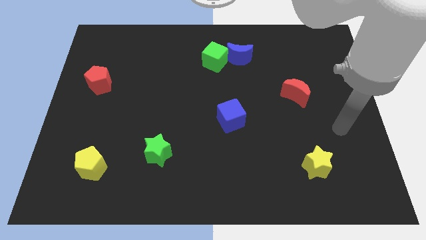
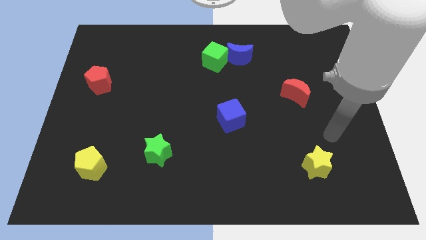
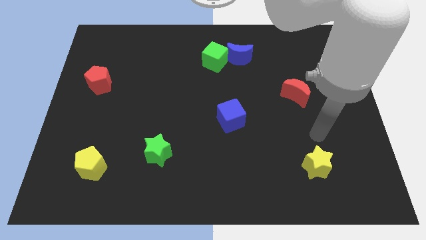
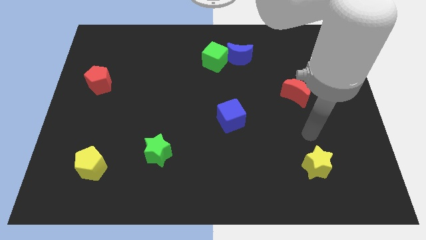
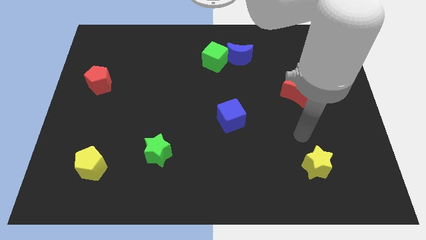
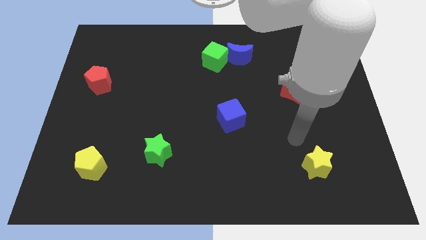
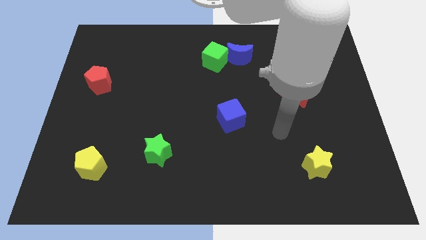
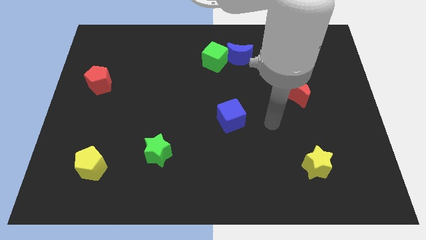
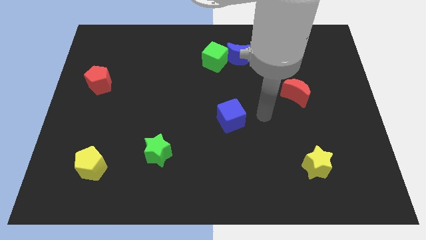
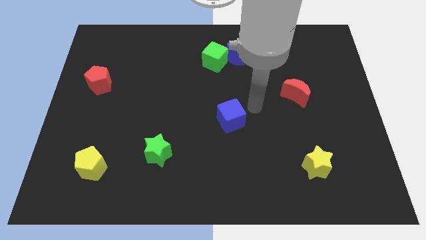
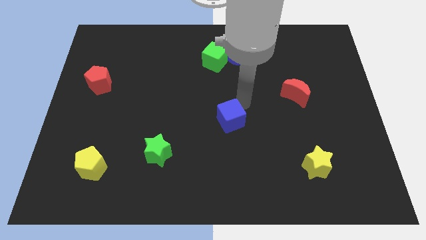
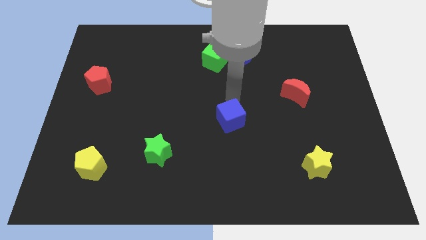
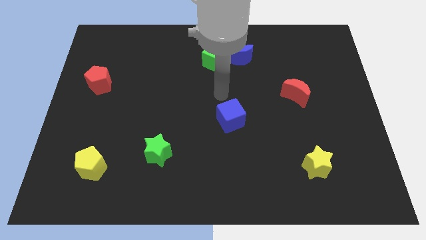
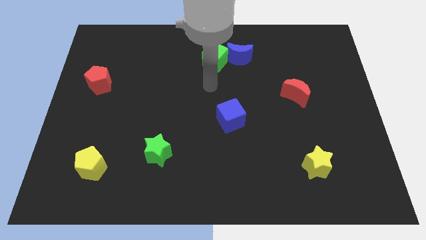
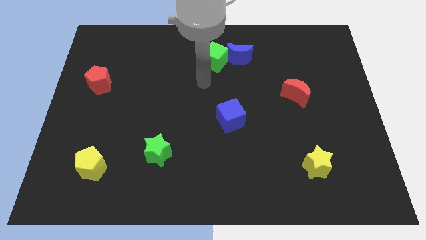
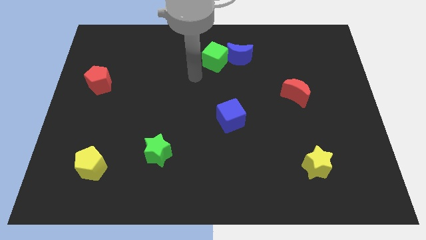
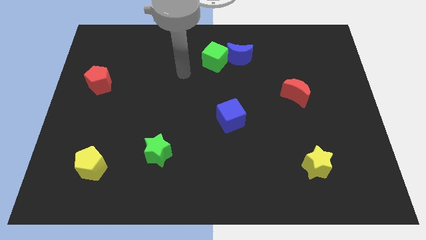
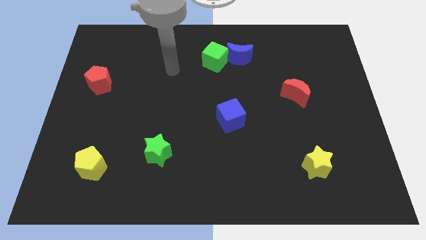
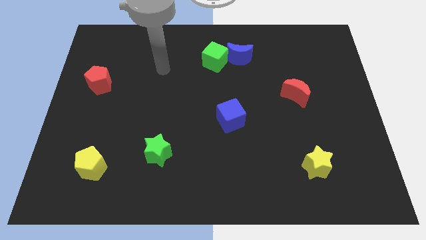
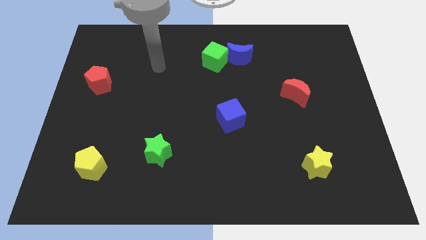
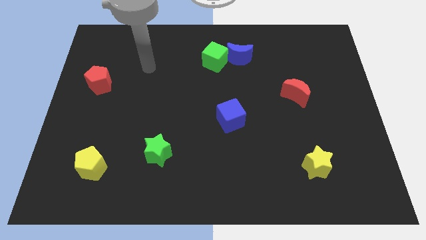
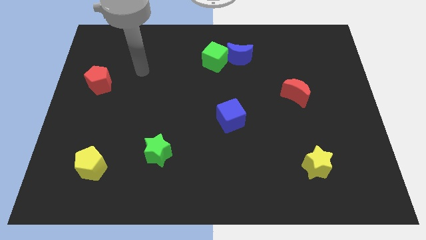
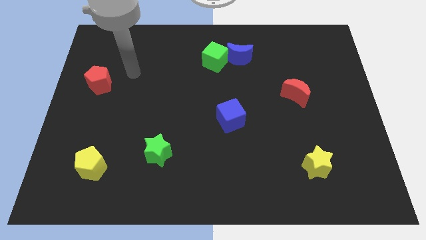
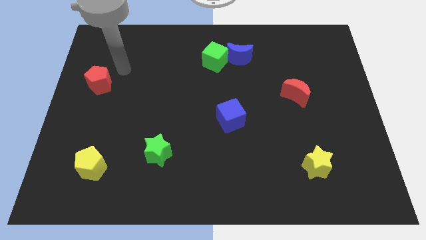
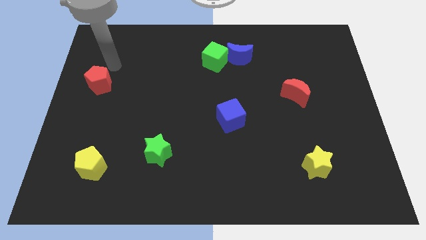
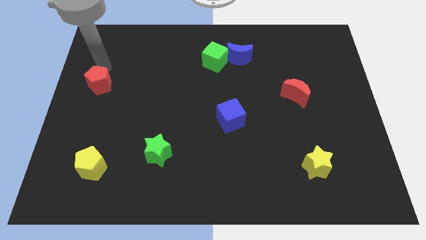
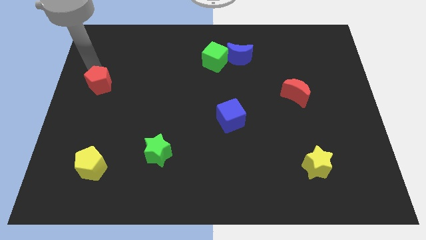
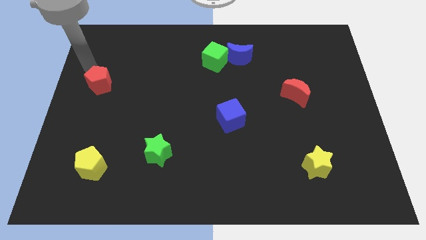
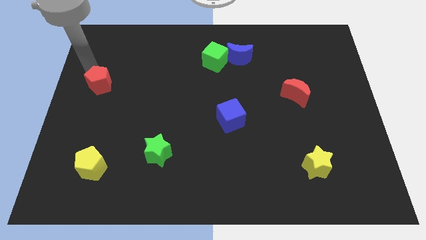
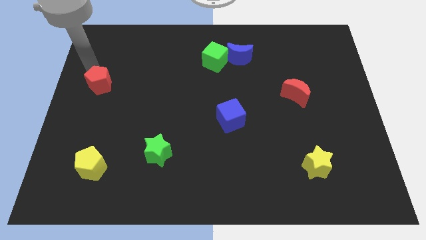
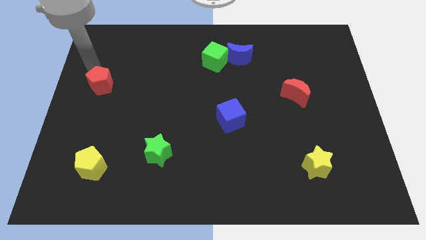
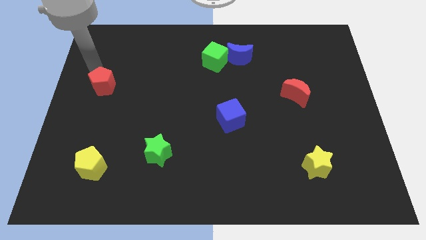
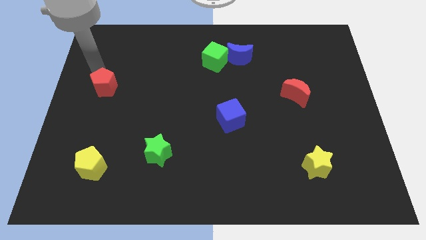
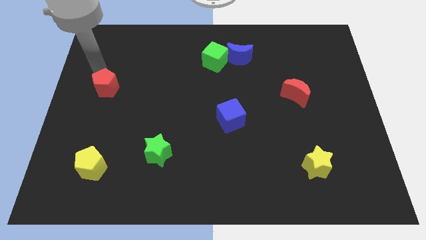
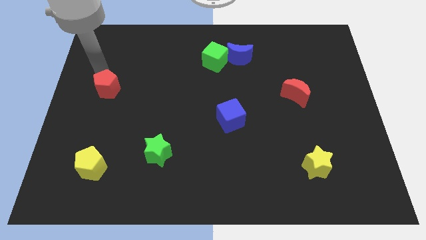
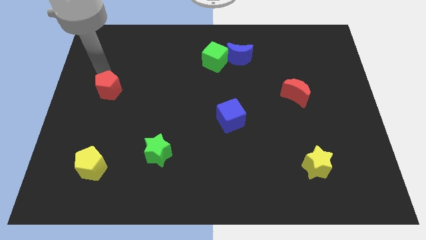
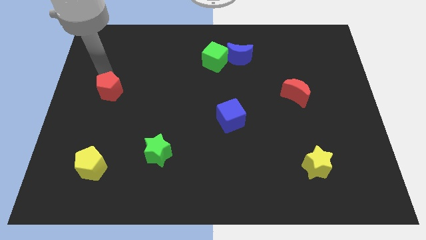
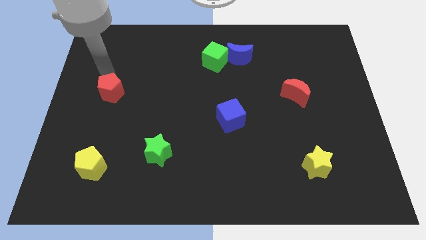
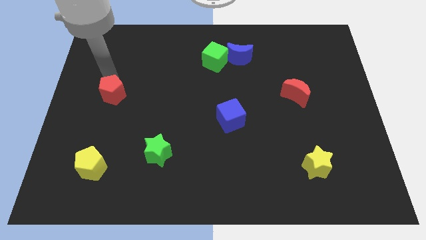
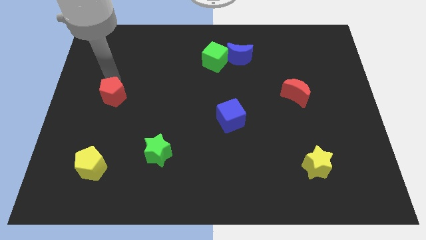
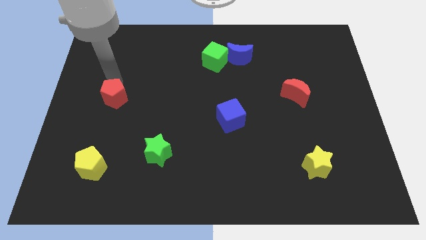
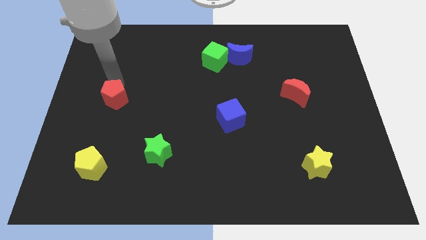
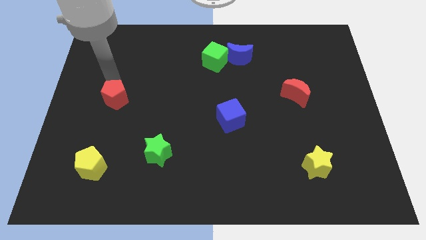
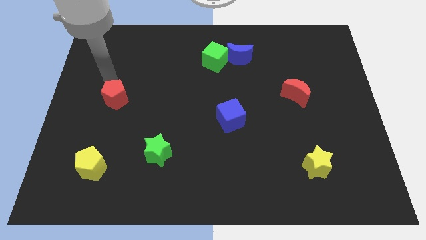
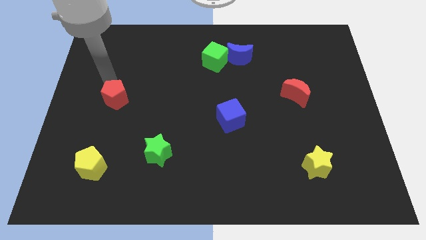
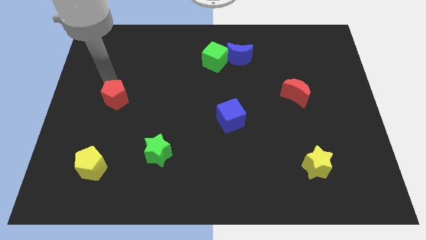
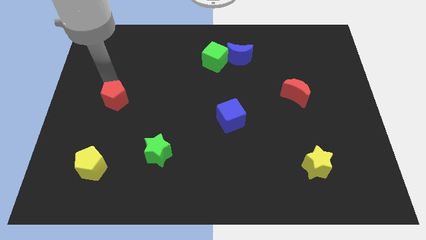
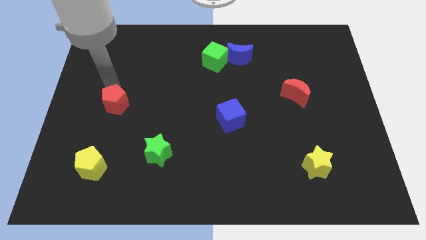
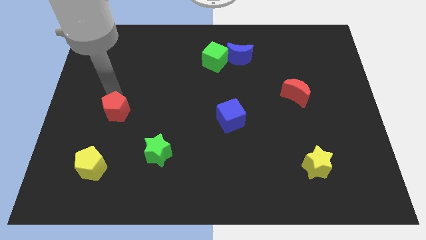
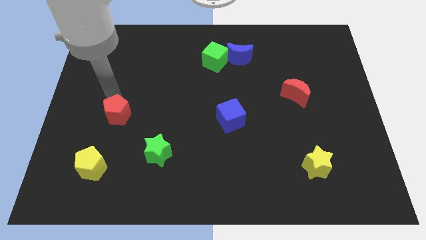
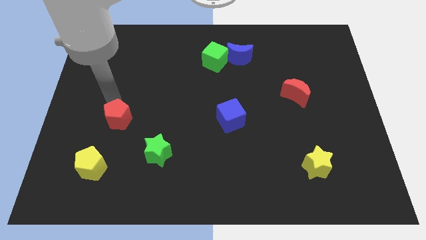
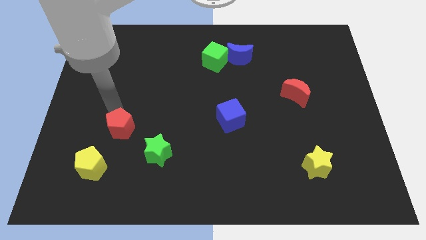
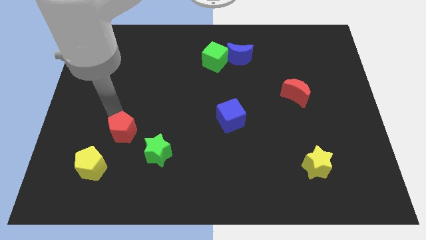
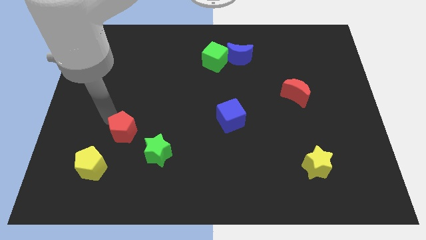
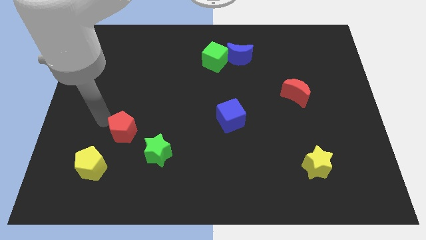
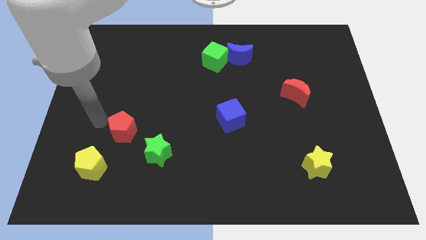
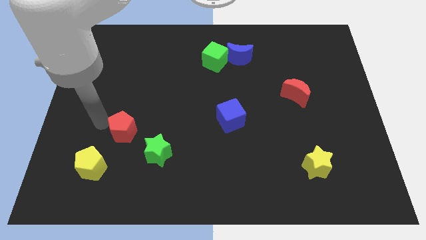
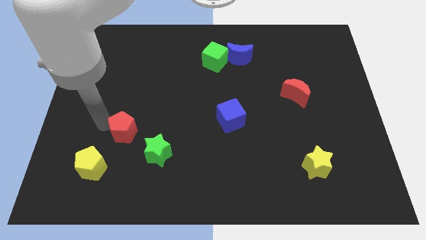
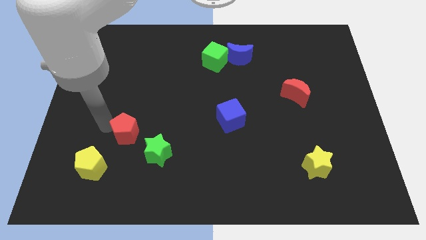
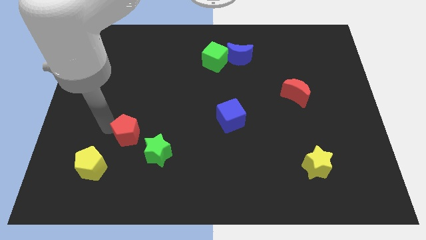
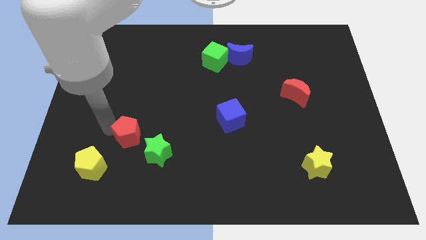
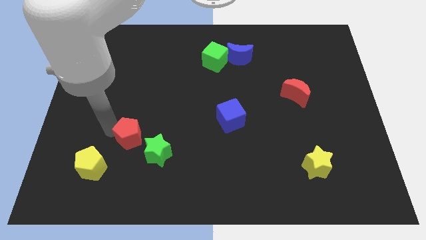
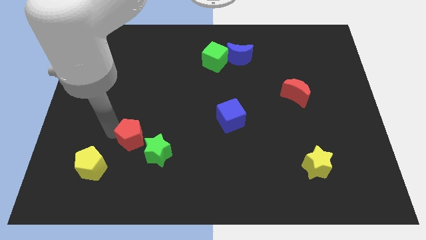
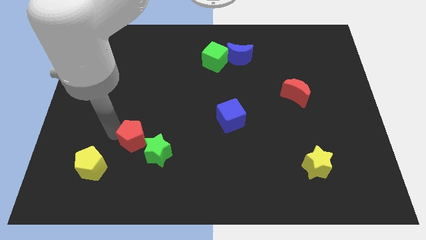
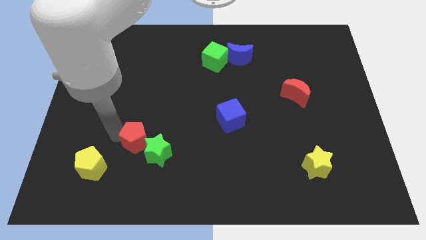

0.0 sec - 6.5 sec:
slide the red pentagon next to the green star
